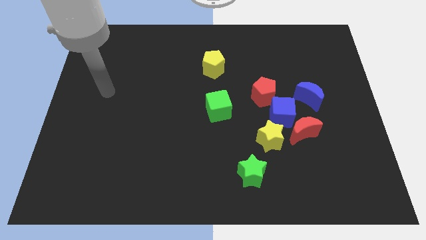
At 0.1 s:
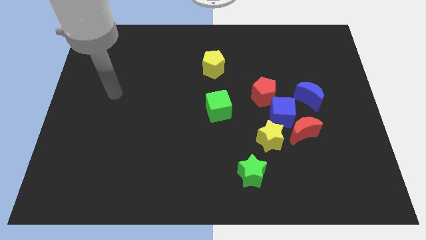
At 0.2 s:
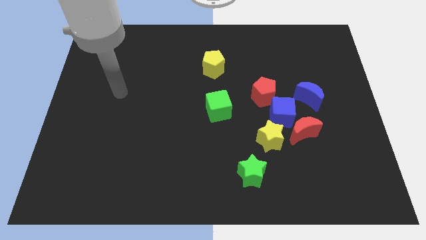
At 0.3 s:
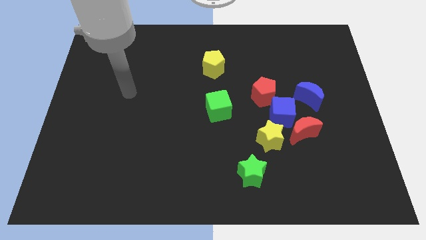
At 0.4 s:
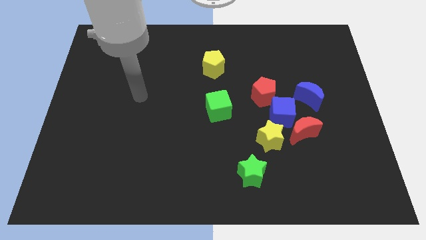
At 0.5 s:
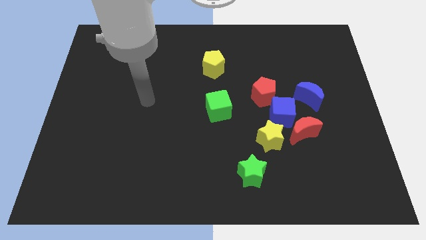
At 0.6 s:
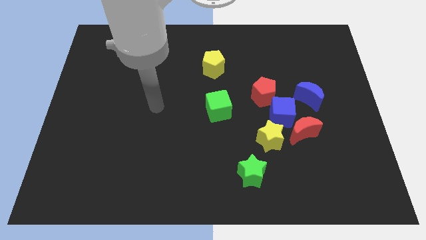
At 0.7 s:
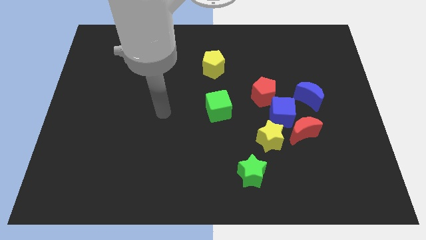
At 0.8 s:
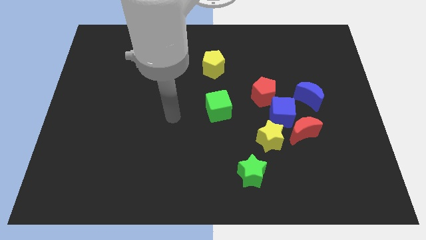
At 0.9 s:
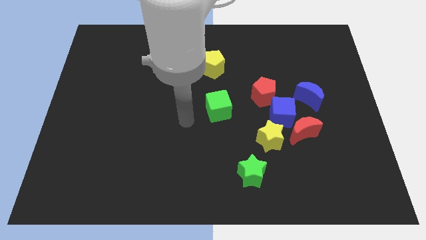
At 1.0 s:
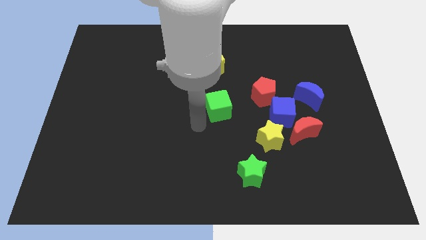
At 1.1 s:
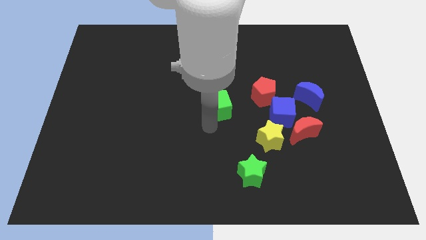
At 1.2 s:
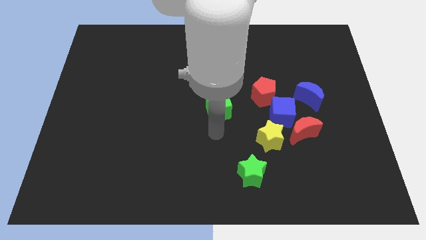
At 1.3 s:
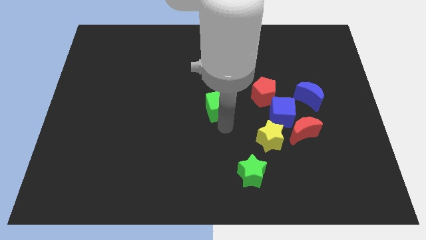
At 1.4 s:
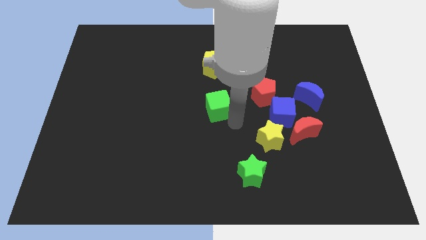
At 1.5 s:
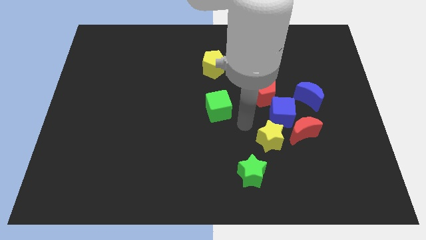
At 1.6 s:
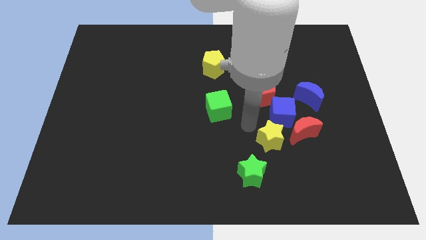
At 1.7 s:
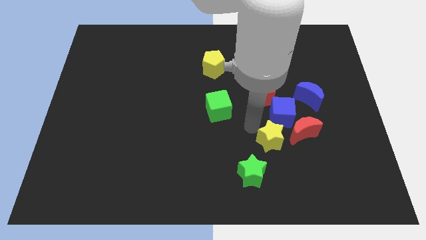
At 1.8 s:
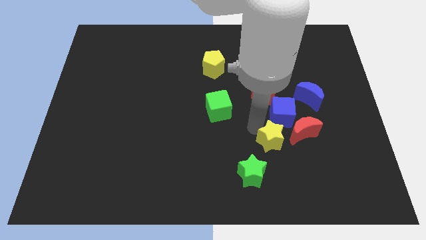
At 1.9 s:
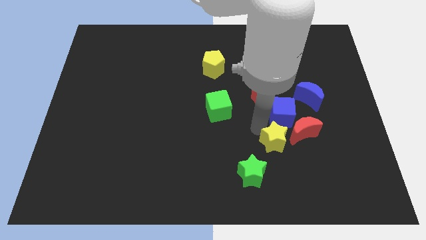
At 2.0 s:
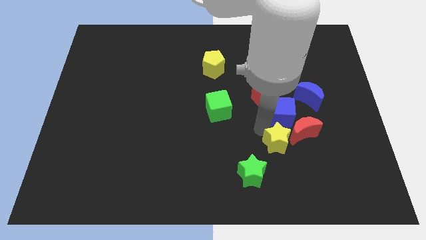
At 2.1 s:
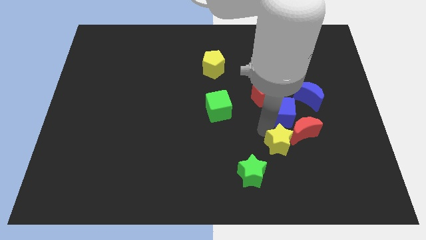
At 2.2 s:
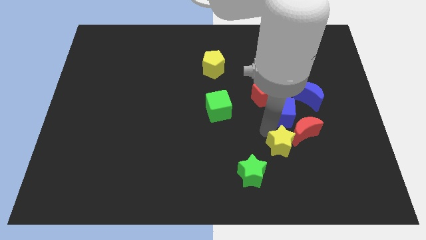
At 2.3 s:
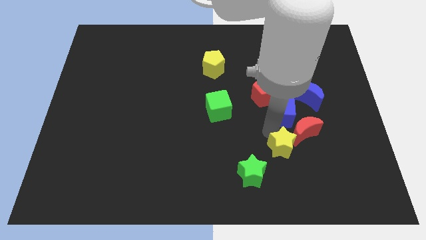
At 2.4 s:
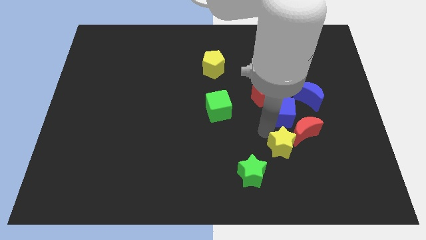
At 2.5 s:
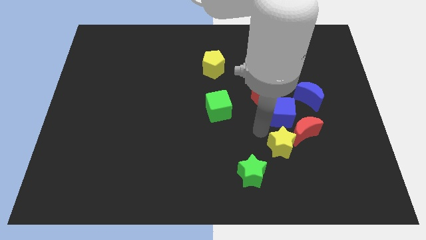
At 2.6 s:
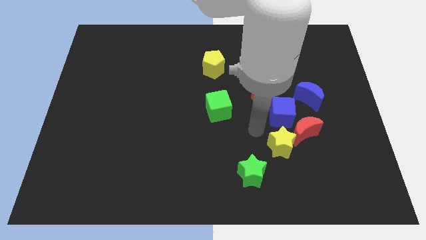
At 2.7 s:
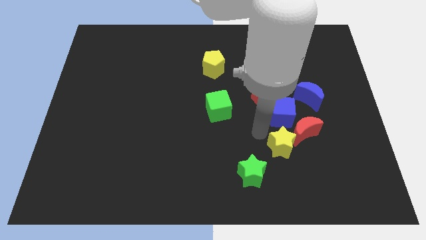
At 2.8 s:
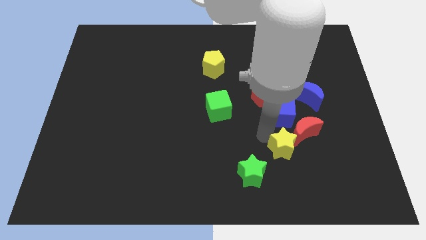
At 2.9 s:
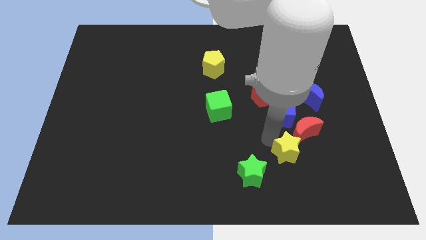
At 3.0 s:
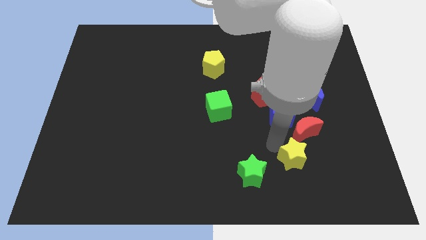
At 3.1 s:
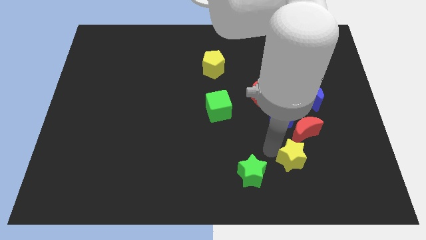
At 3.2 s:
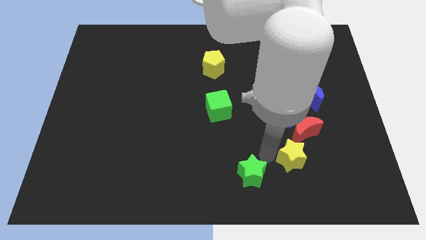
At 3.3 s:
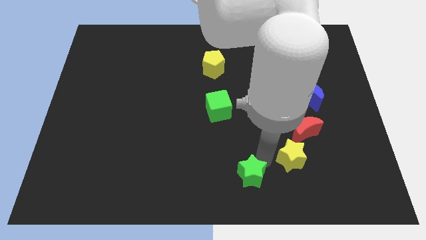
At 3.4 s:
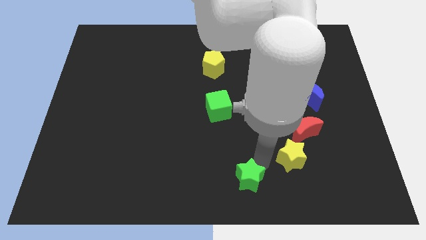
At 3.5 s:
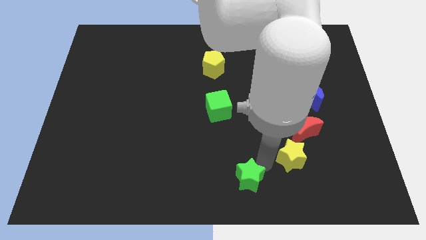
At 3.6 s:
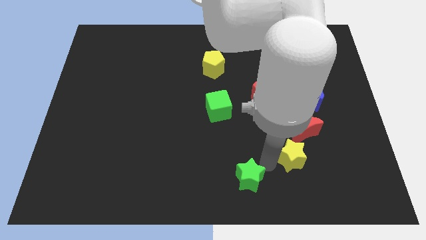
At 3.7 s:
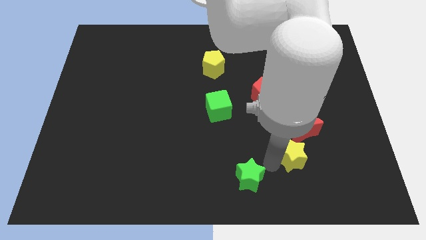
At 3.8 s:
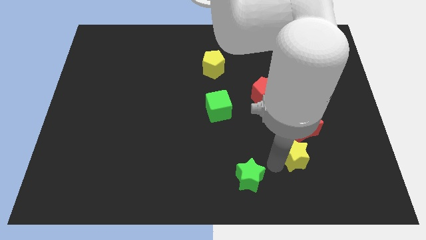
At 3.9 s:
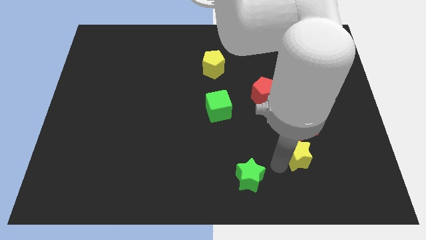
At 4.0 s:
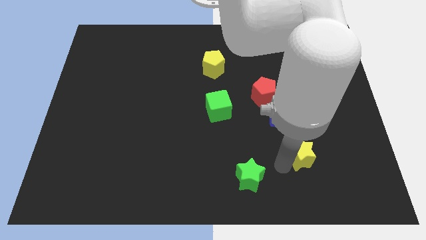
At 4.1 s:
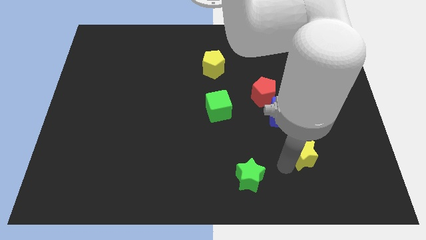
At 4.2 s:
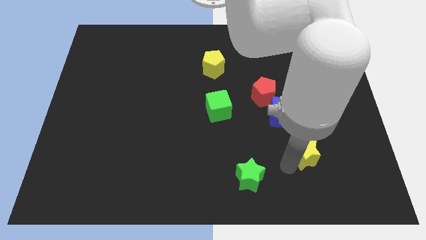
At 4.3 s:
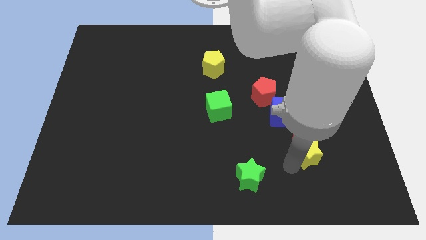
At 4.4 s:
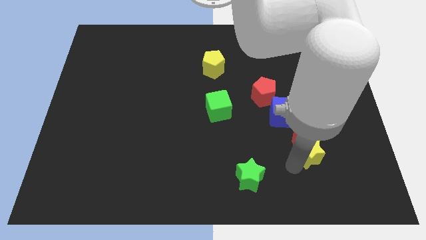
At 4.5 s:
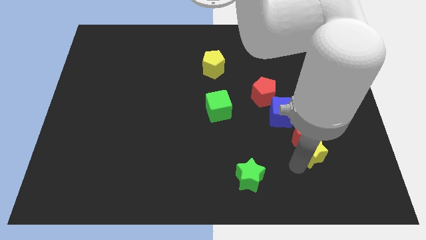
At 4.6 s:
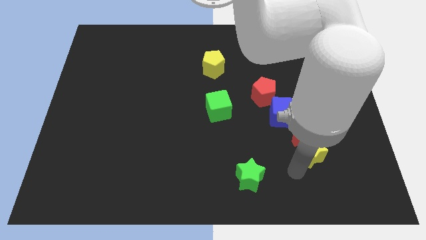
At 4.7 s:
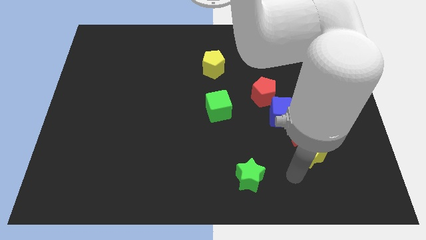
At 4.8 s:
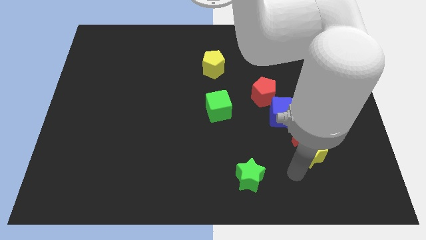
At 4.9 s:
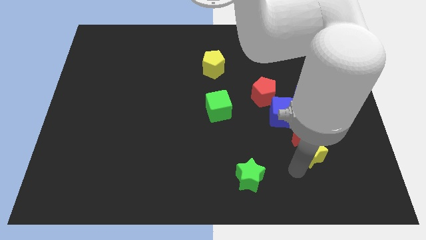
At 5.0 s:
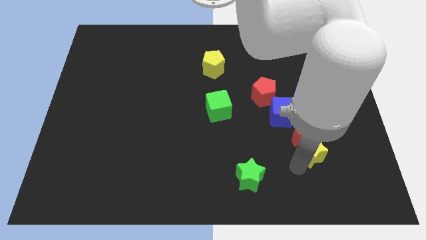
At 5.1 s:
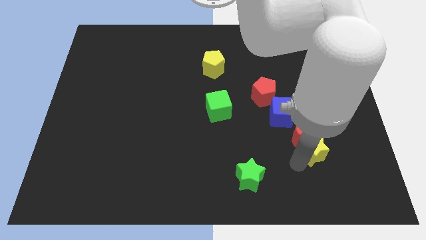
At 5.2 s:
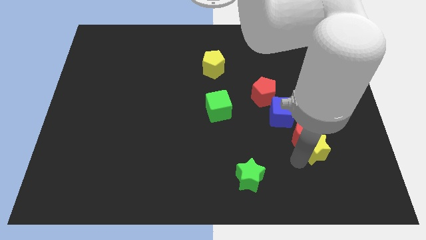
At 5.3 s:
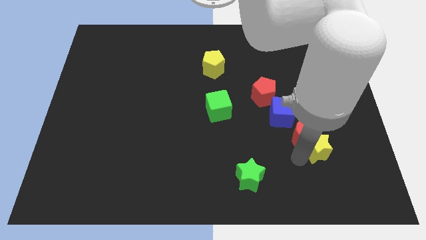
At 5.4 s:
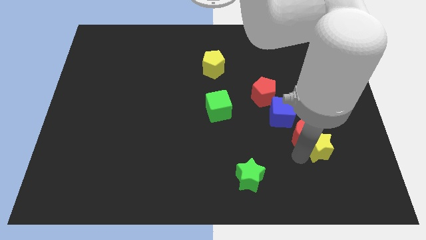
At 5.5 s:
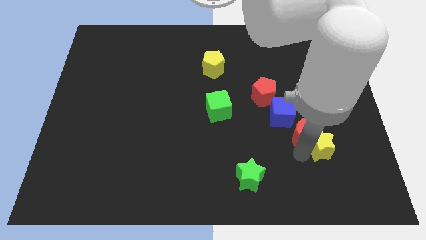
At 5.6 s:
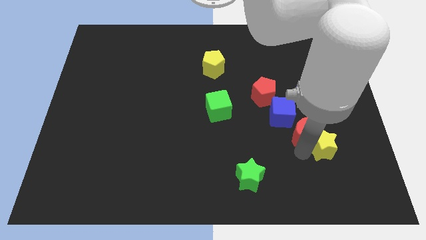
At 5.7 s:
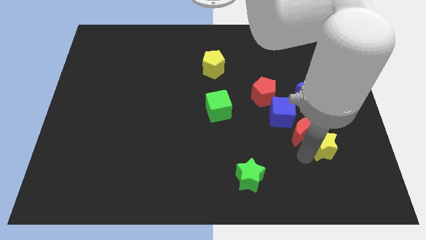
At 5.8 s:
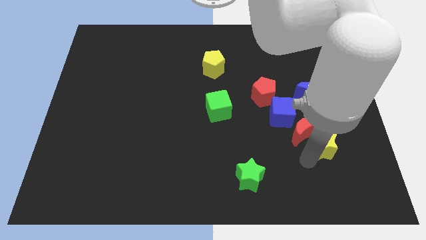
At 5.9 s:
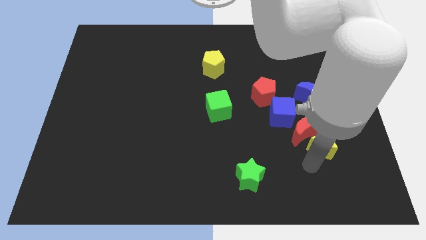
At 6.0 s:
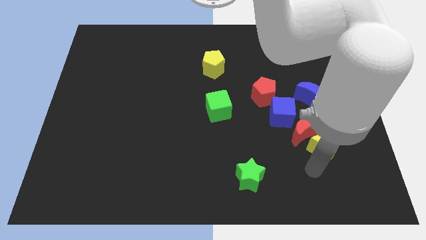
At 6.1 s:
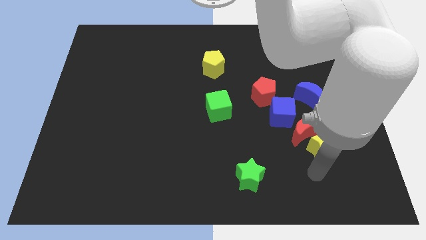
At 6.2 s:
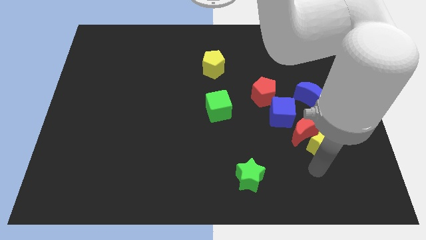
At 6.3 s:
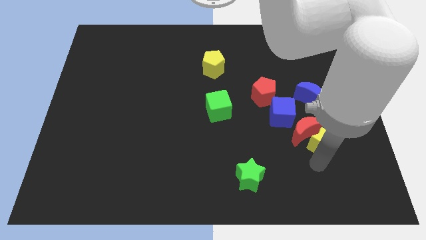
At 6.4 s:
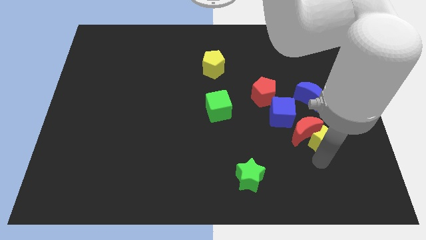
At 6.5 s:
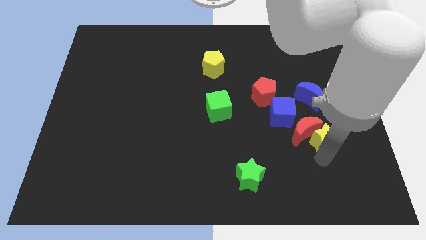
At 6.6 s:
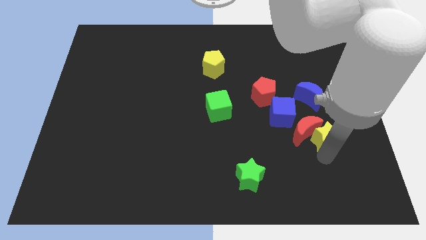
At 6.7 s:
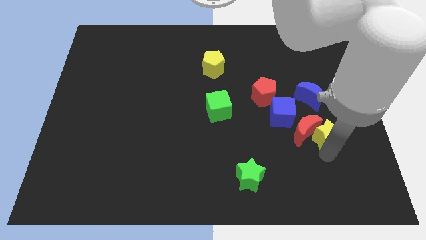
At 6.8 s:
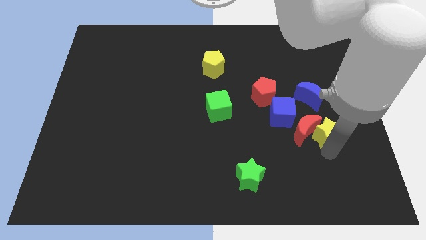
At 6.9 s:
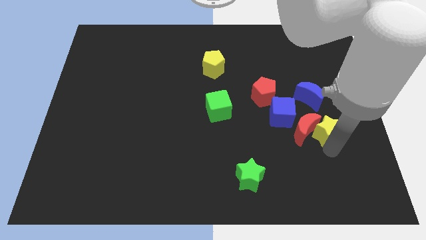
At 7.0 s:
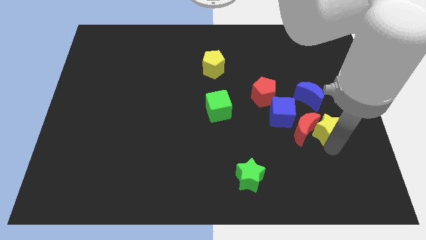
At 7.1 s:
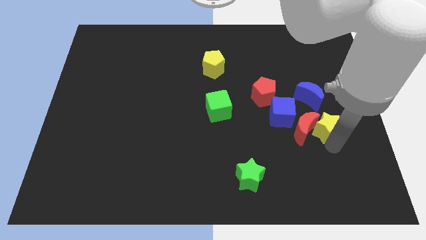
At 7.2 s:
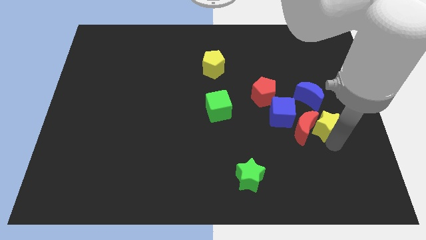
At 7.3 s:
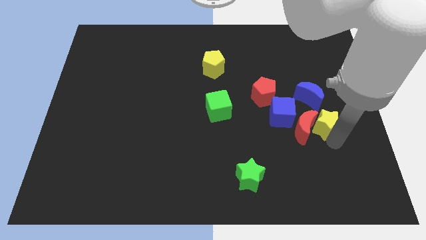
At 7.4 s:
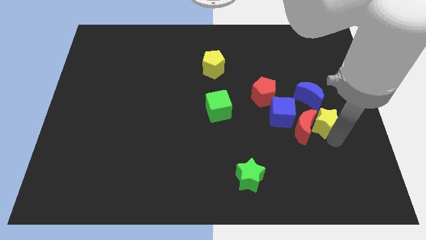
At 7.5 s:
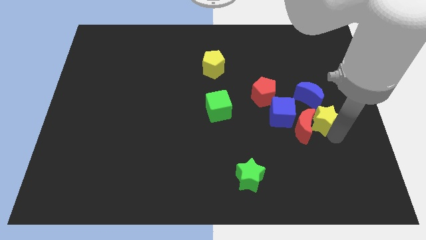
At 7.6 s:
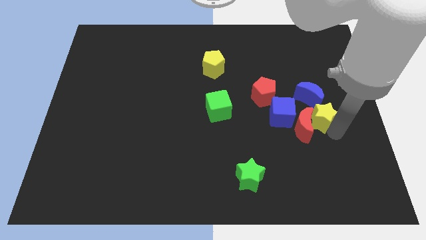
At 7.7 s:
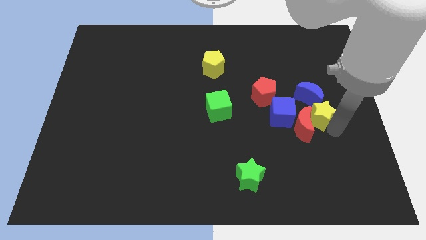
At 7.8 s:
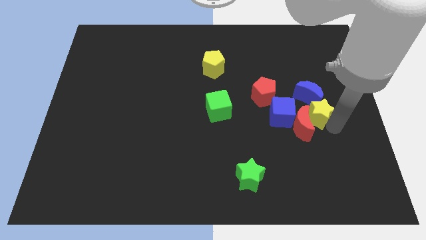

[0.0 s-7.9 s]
push the yellow star to the blue moon
